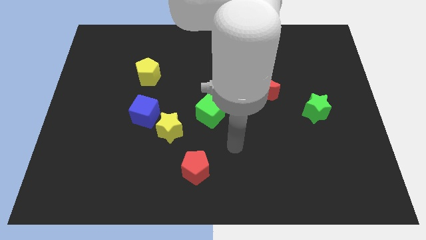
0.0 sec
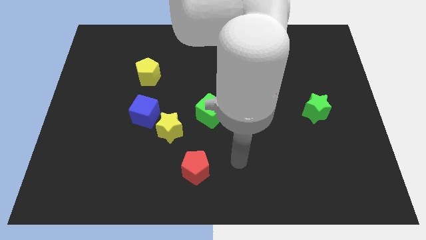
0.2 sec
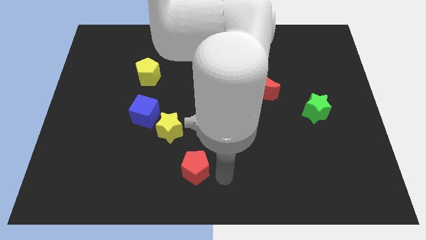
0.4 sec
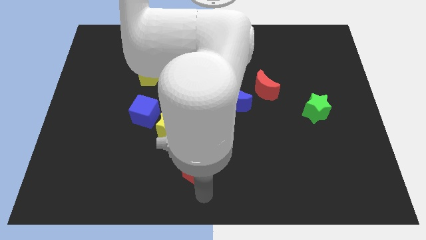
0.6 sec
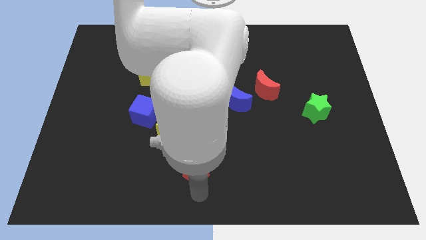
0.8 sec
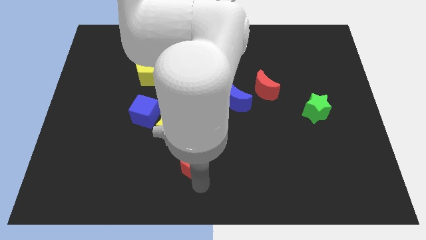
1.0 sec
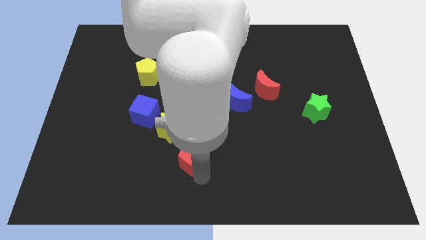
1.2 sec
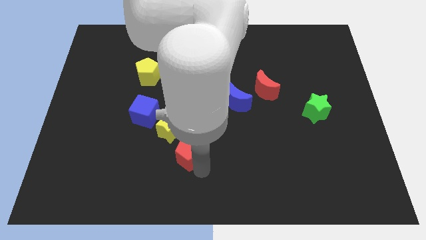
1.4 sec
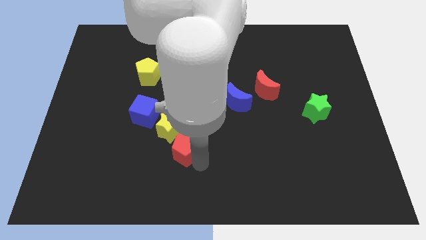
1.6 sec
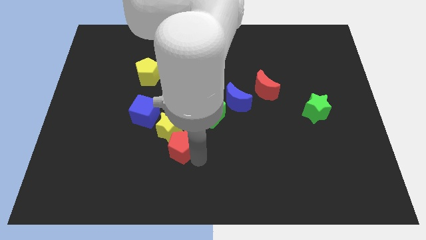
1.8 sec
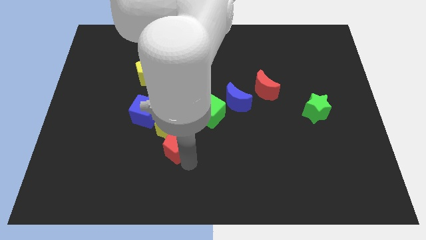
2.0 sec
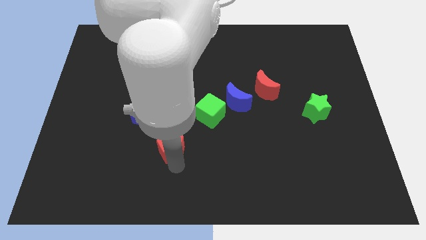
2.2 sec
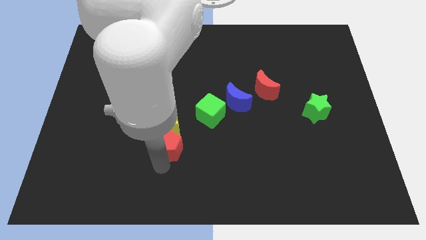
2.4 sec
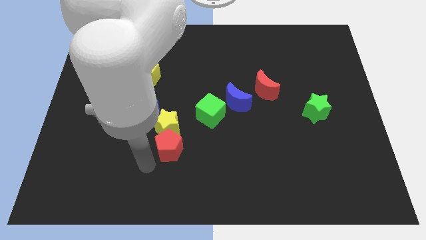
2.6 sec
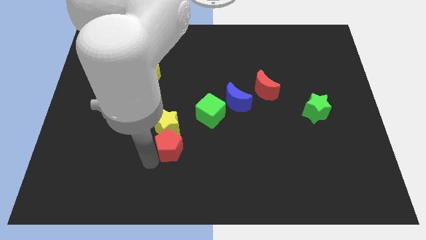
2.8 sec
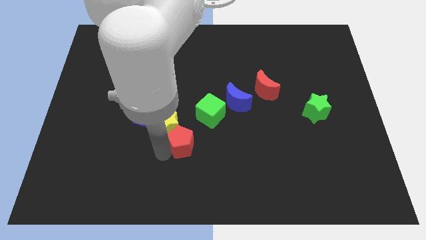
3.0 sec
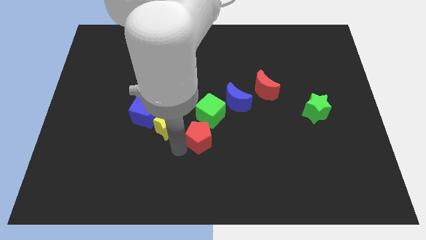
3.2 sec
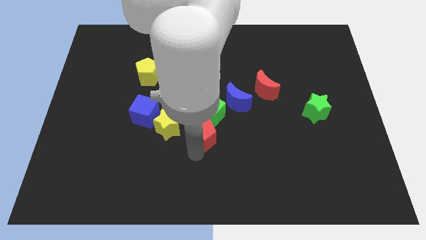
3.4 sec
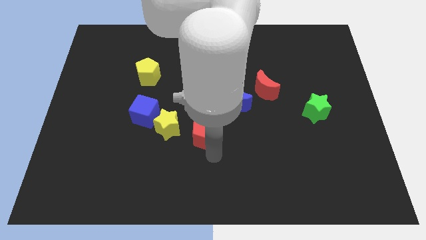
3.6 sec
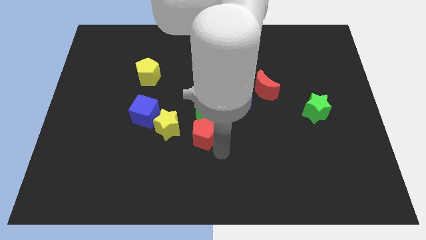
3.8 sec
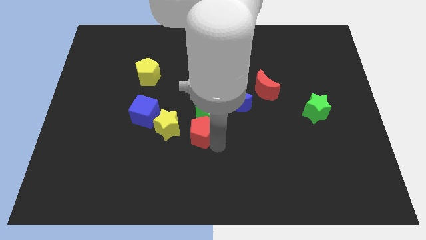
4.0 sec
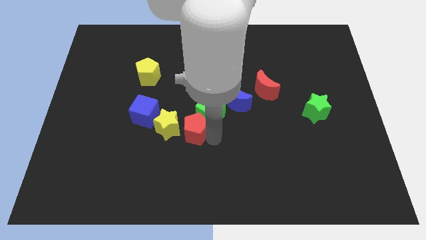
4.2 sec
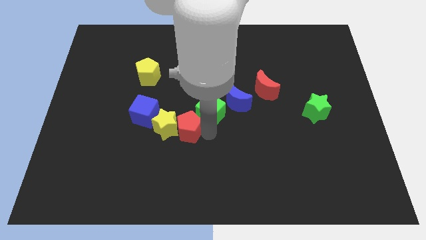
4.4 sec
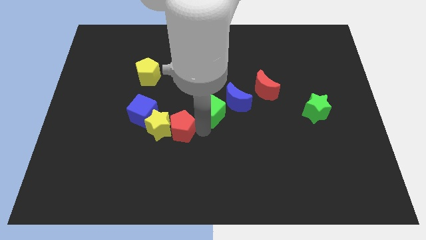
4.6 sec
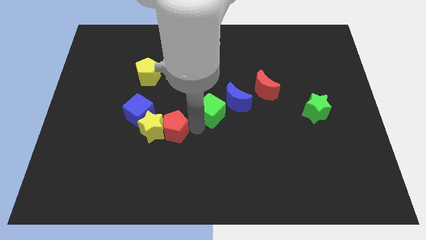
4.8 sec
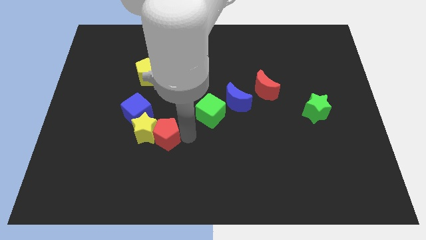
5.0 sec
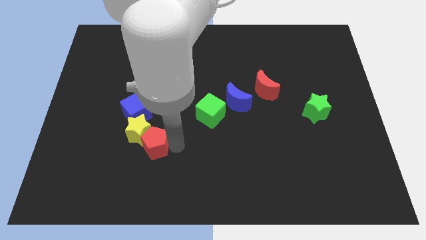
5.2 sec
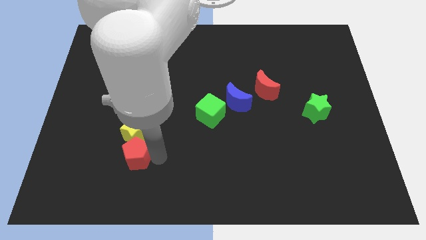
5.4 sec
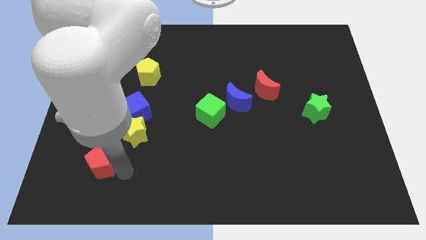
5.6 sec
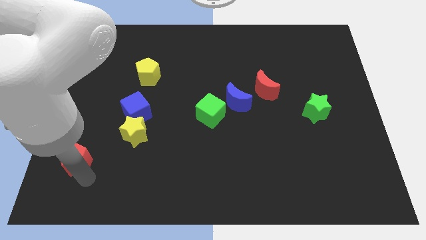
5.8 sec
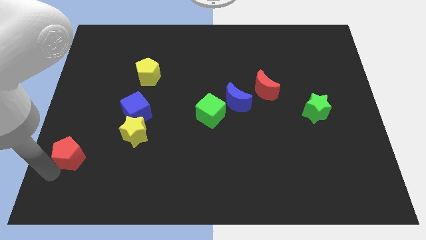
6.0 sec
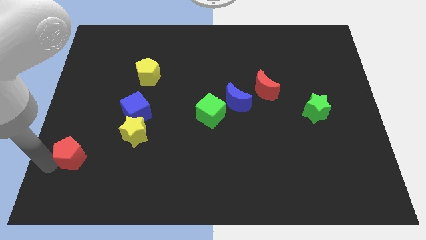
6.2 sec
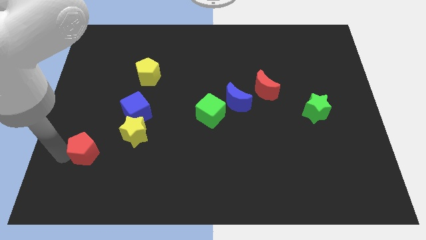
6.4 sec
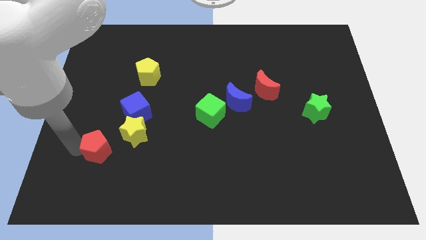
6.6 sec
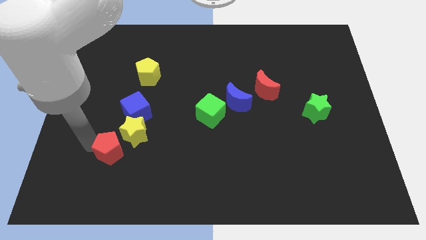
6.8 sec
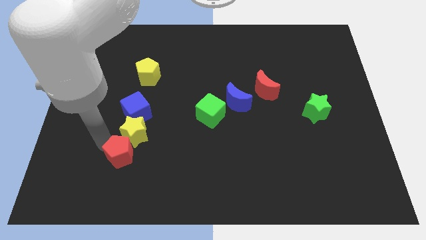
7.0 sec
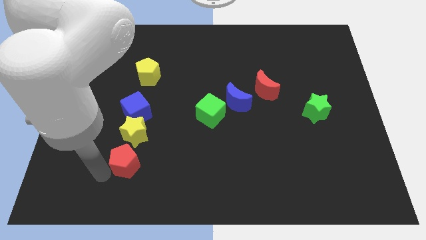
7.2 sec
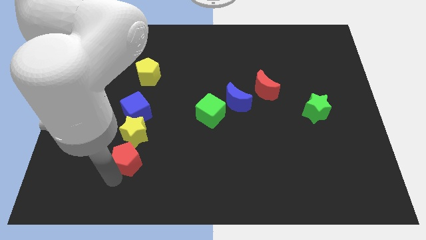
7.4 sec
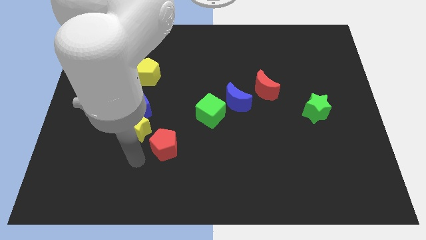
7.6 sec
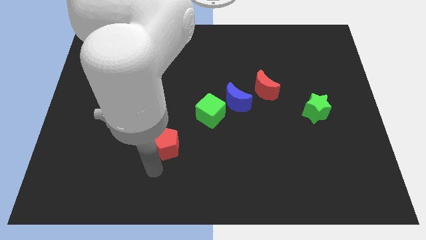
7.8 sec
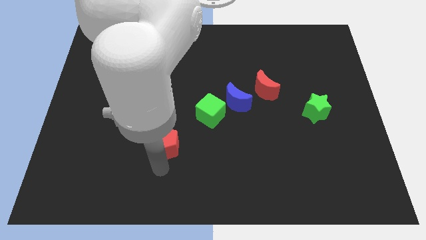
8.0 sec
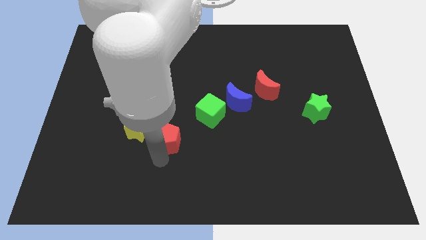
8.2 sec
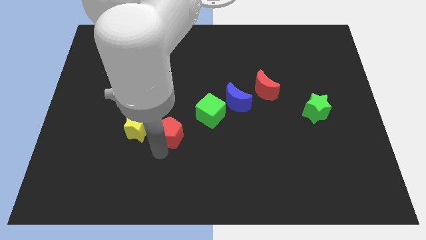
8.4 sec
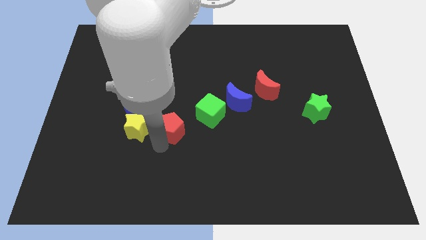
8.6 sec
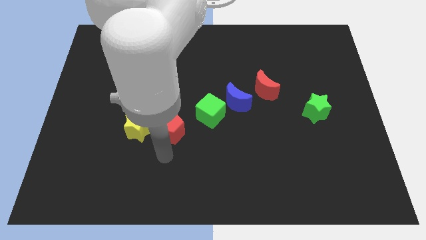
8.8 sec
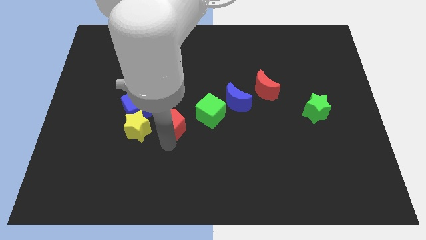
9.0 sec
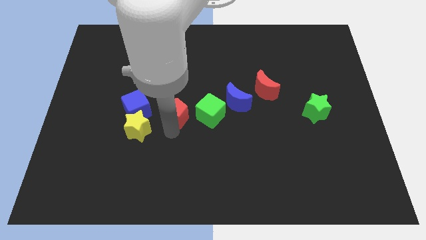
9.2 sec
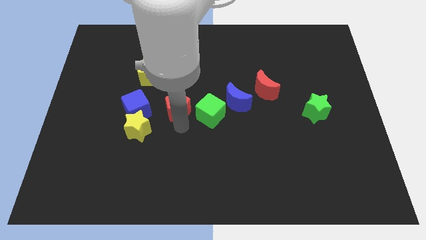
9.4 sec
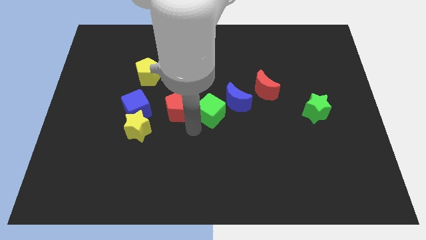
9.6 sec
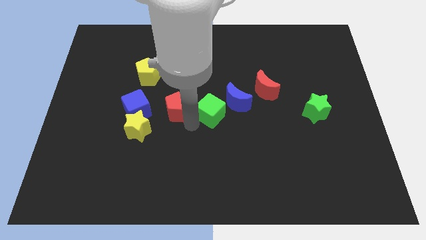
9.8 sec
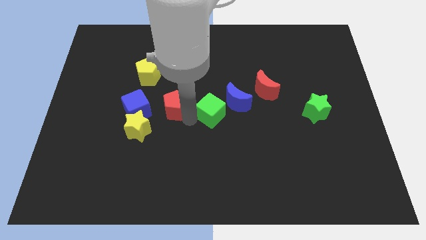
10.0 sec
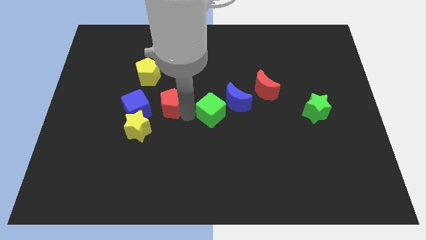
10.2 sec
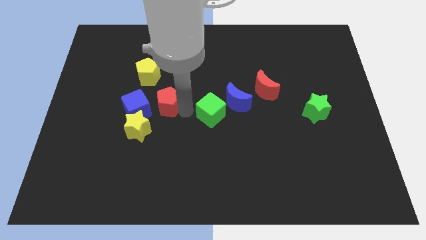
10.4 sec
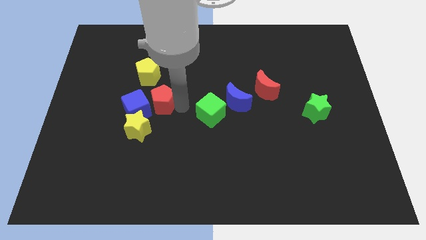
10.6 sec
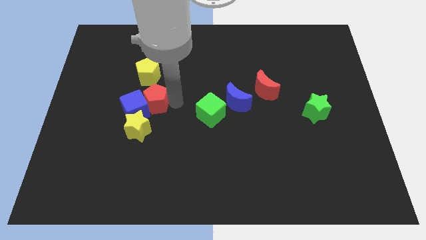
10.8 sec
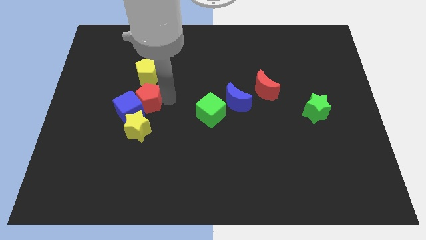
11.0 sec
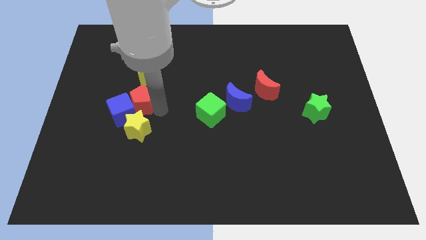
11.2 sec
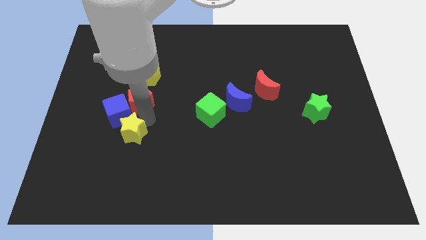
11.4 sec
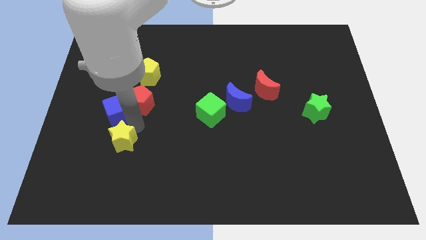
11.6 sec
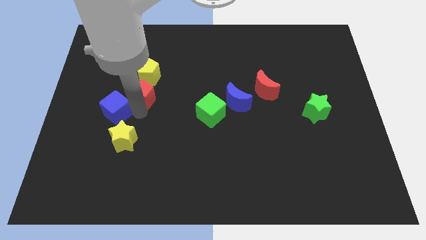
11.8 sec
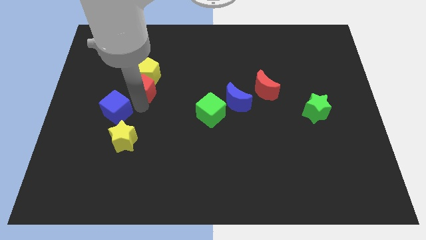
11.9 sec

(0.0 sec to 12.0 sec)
slide the red pentagon to the yellow pentagon
